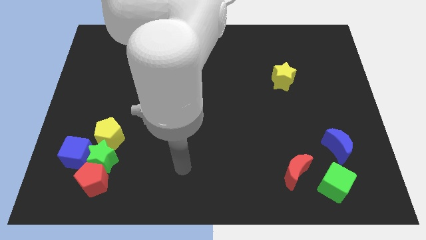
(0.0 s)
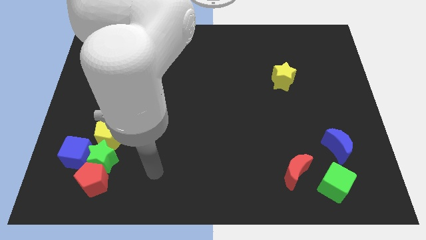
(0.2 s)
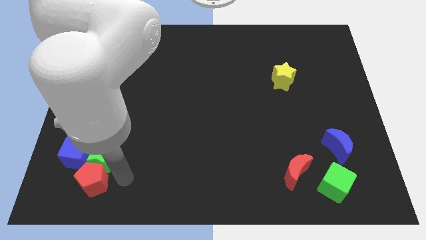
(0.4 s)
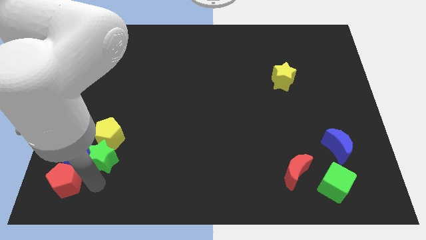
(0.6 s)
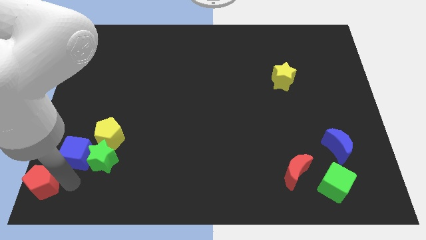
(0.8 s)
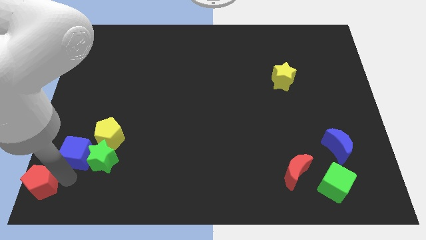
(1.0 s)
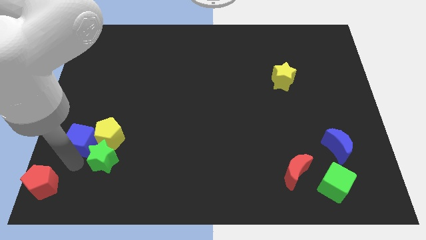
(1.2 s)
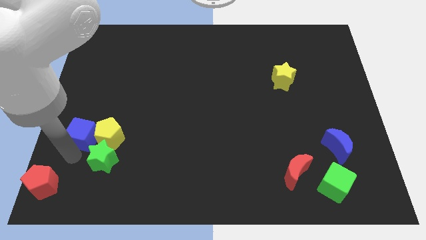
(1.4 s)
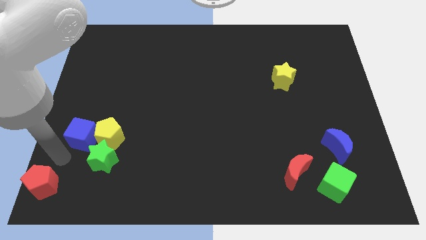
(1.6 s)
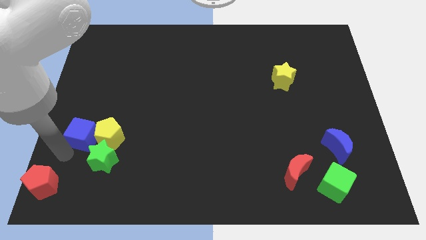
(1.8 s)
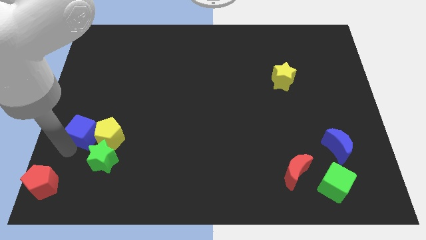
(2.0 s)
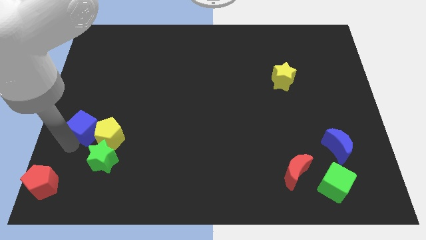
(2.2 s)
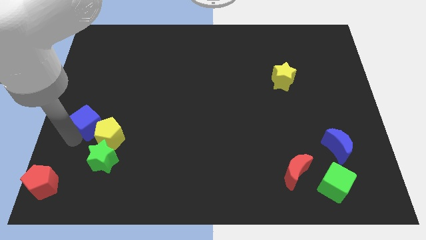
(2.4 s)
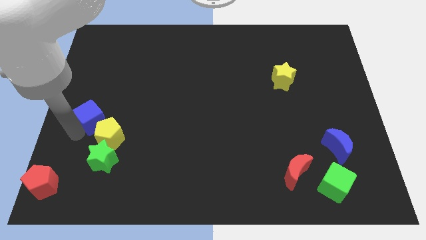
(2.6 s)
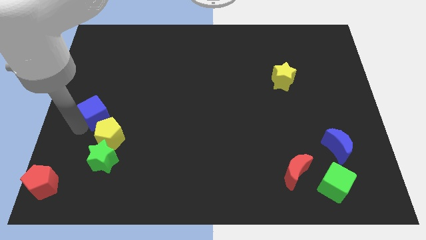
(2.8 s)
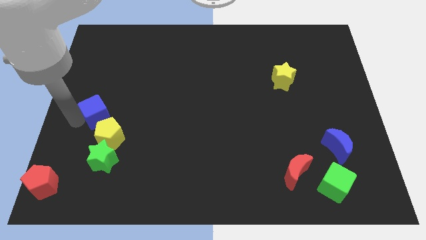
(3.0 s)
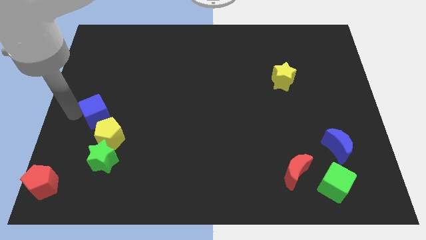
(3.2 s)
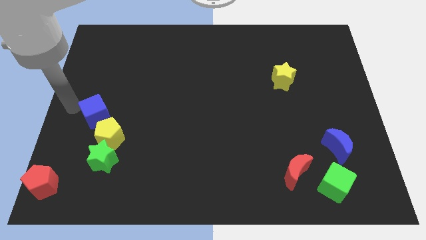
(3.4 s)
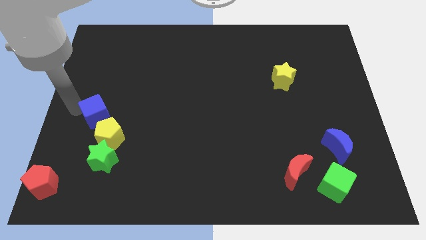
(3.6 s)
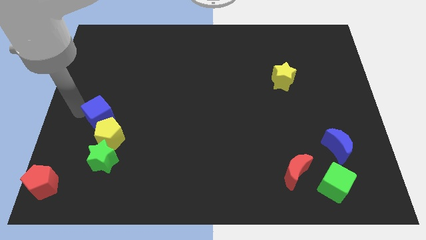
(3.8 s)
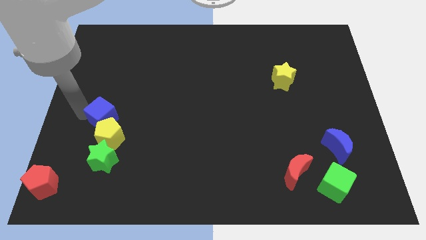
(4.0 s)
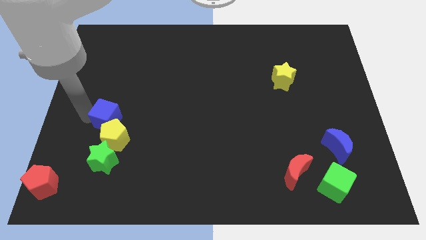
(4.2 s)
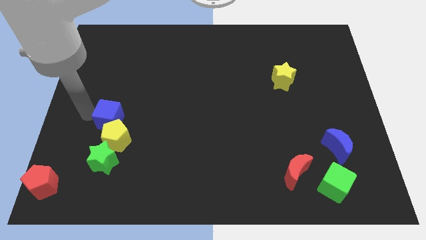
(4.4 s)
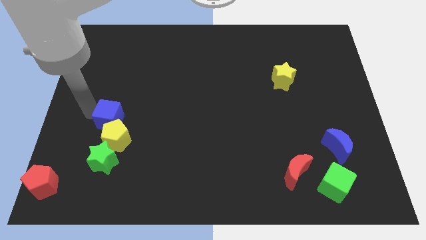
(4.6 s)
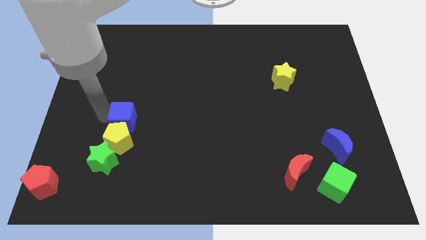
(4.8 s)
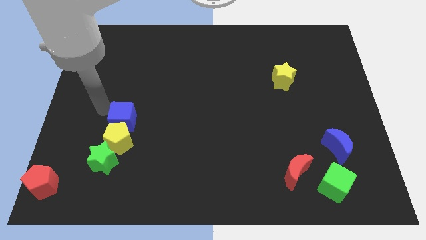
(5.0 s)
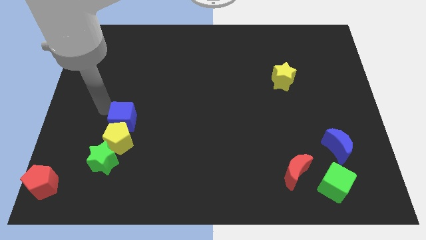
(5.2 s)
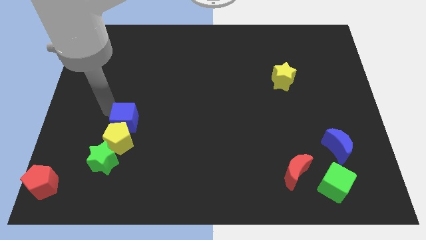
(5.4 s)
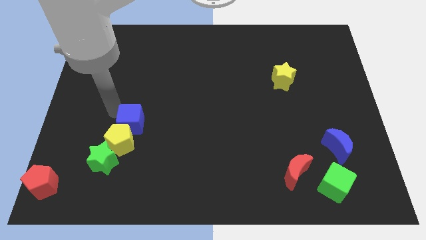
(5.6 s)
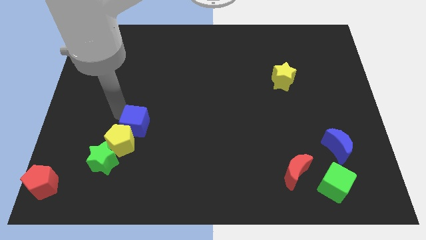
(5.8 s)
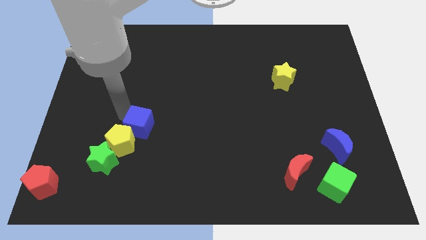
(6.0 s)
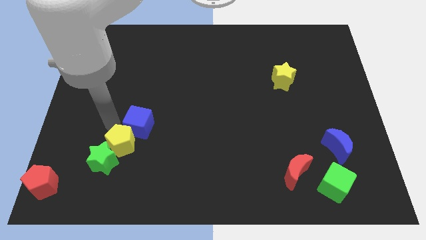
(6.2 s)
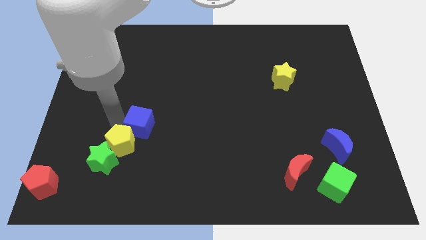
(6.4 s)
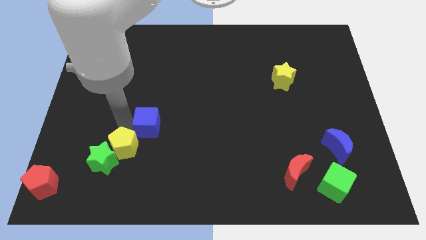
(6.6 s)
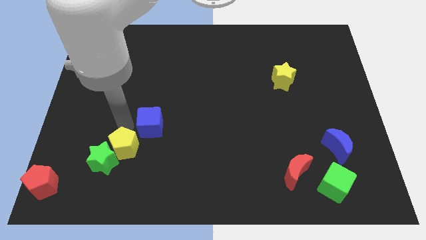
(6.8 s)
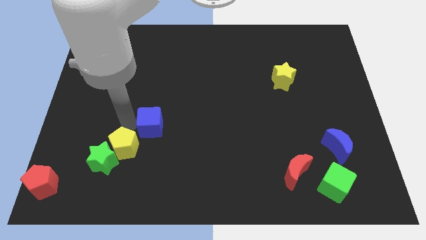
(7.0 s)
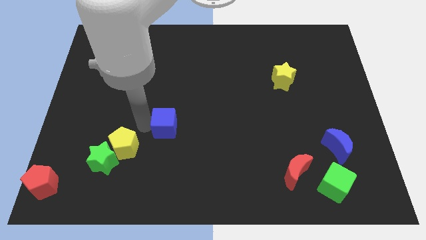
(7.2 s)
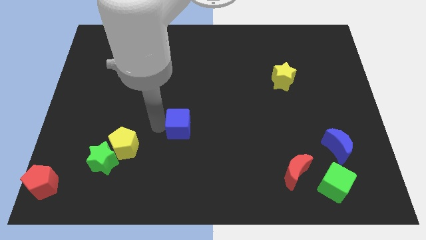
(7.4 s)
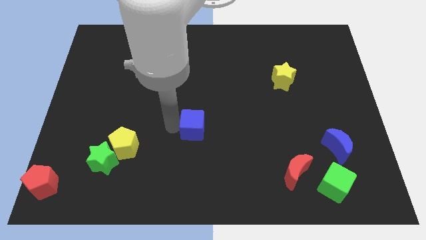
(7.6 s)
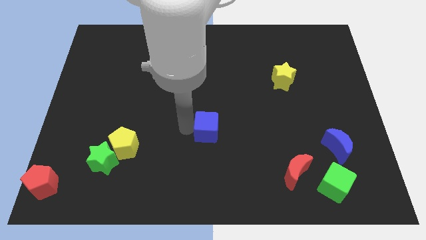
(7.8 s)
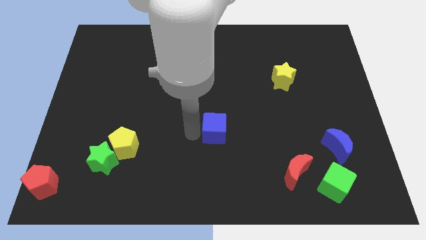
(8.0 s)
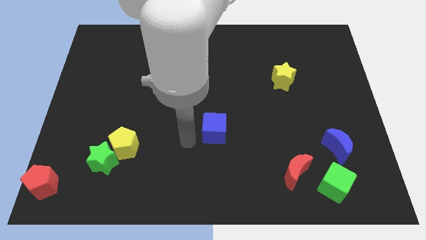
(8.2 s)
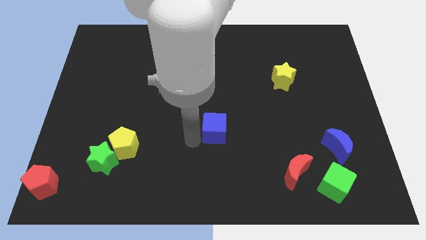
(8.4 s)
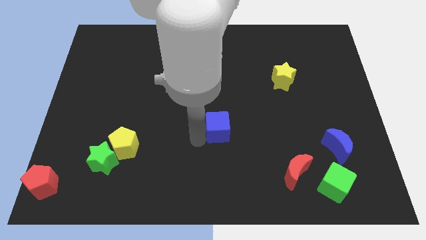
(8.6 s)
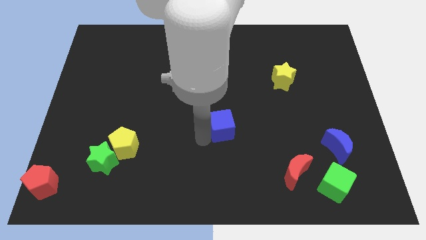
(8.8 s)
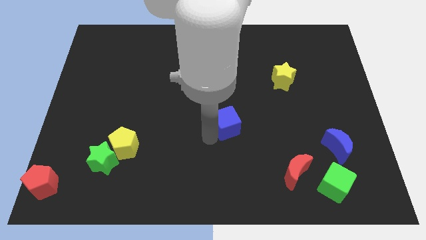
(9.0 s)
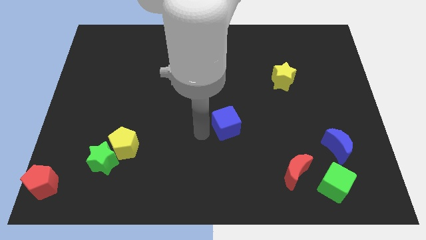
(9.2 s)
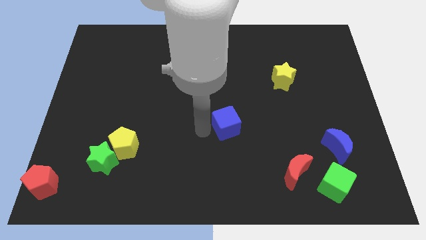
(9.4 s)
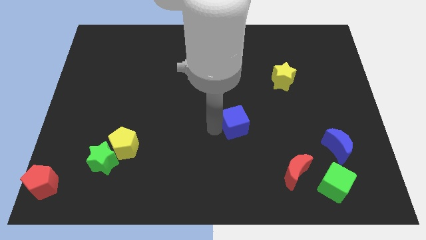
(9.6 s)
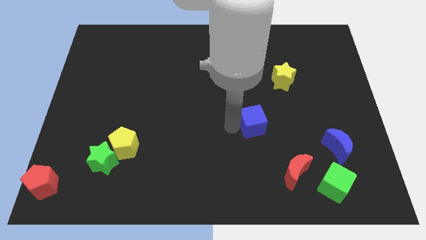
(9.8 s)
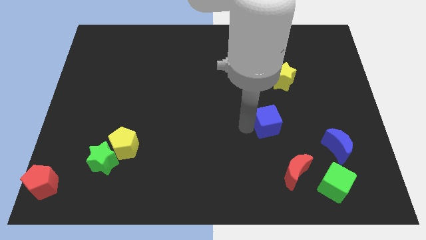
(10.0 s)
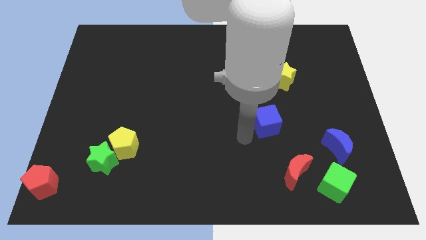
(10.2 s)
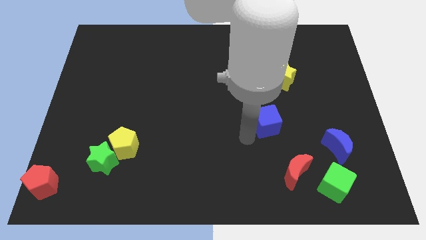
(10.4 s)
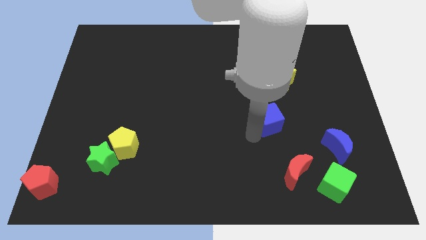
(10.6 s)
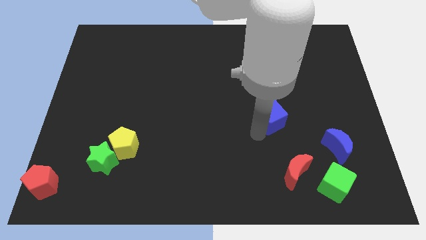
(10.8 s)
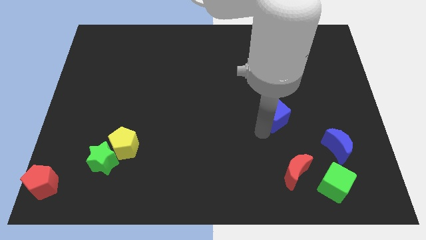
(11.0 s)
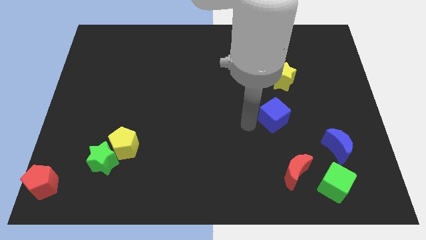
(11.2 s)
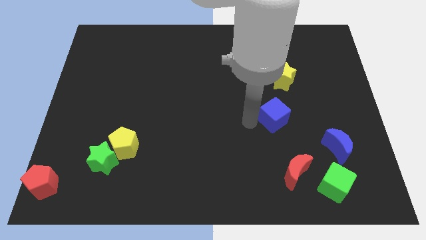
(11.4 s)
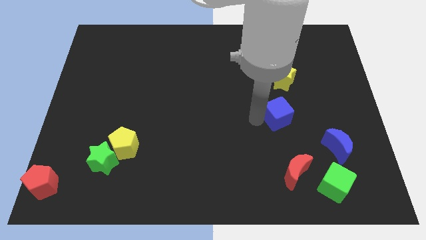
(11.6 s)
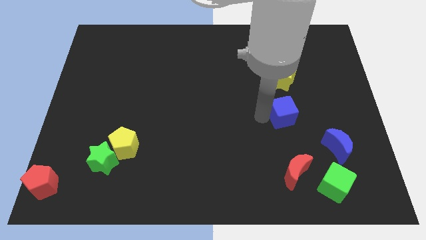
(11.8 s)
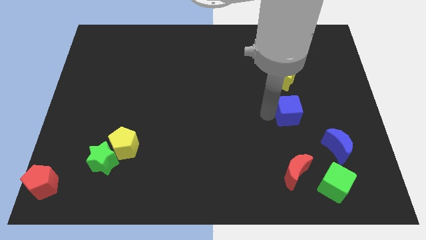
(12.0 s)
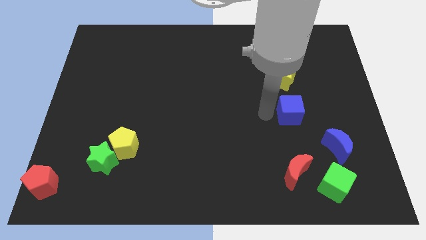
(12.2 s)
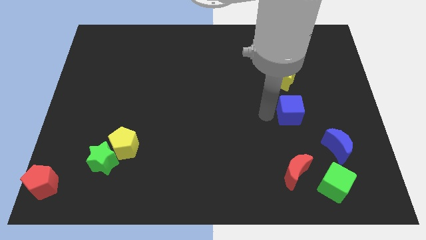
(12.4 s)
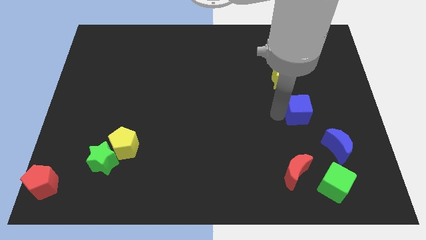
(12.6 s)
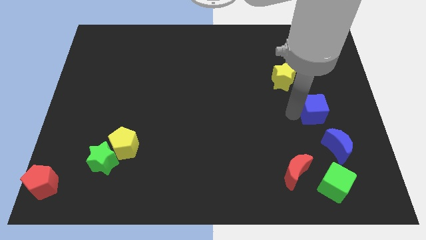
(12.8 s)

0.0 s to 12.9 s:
slide the blue cube above the blue moon
